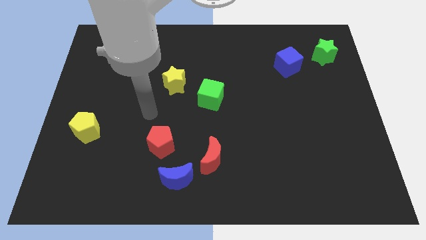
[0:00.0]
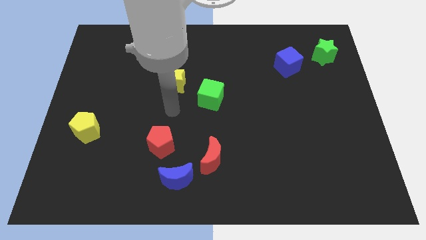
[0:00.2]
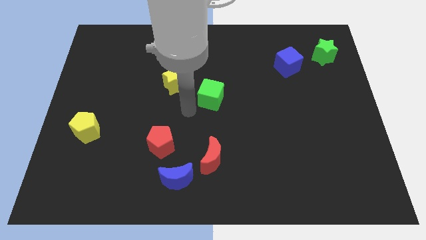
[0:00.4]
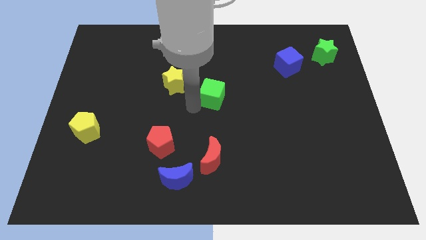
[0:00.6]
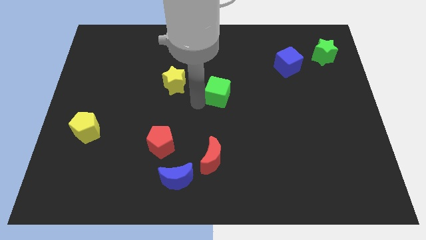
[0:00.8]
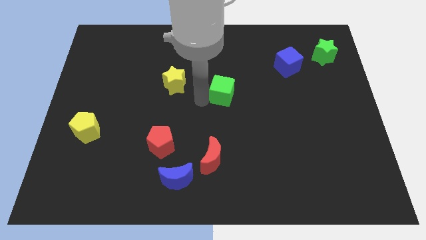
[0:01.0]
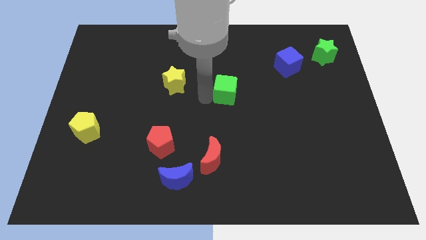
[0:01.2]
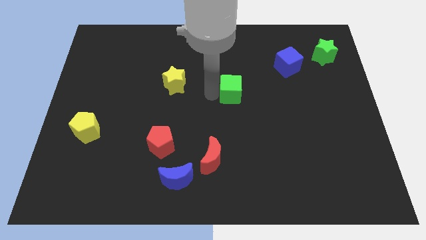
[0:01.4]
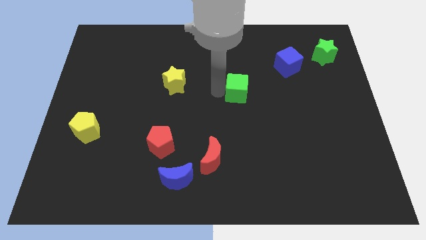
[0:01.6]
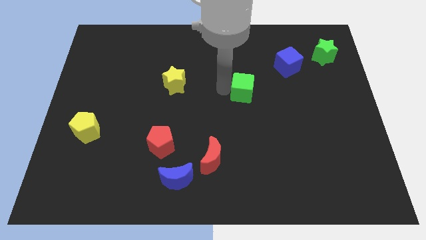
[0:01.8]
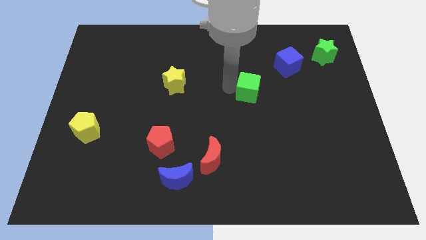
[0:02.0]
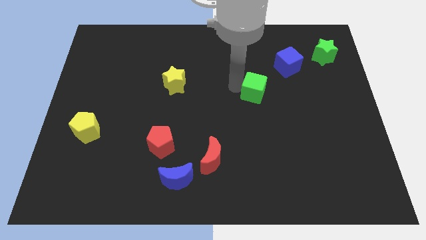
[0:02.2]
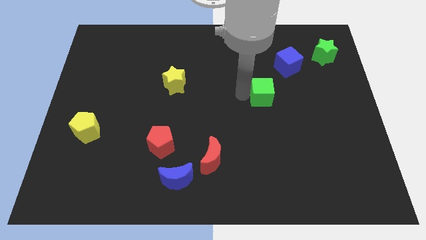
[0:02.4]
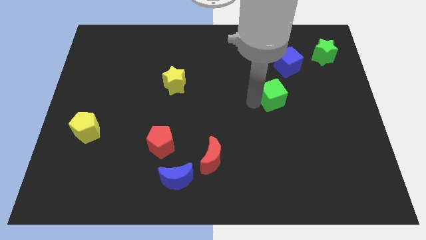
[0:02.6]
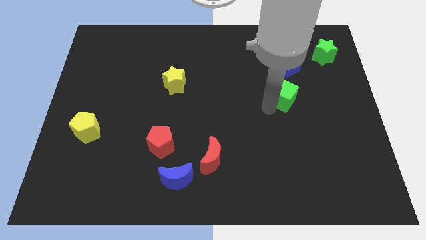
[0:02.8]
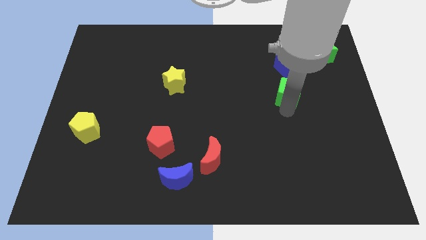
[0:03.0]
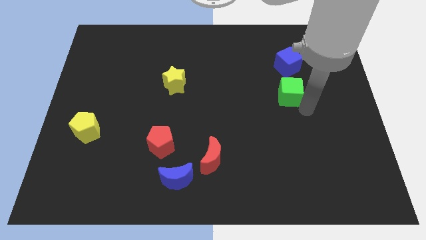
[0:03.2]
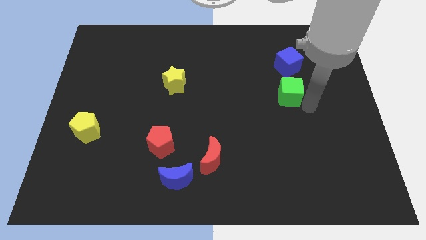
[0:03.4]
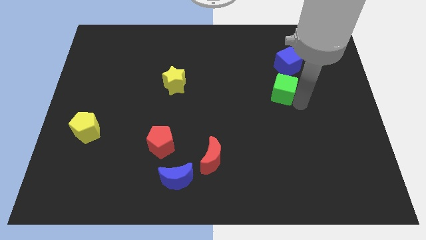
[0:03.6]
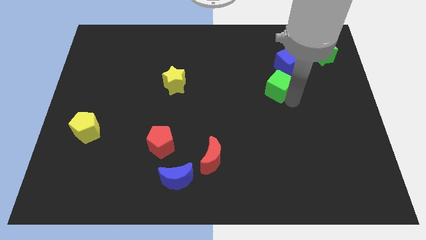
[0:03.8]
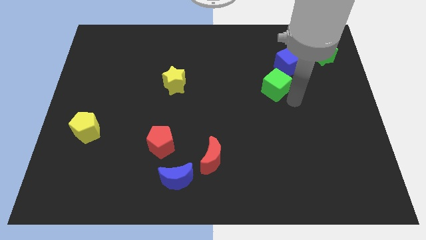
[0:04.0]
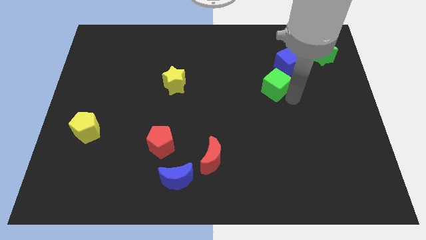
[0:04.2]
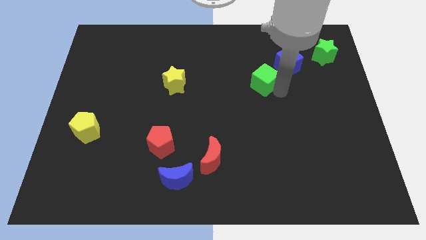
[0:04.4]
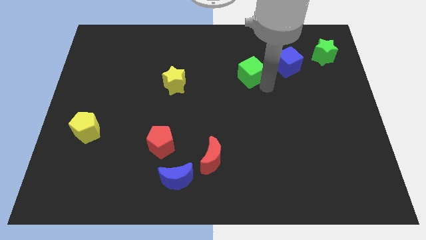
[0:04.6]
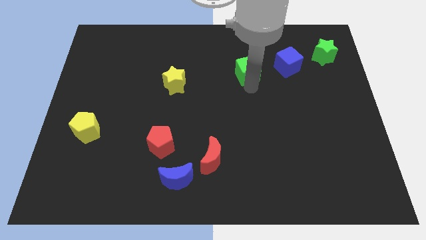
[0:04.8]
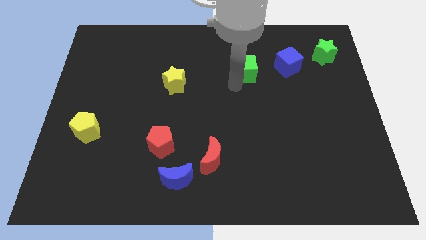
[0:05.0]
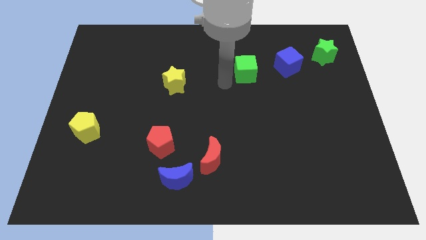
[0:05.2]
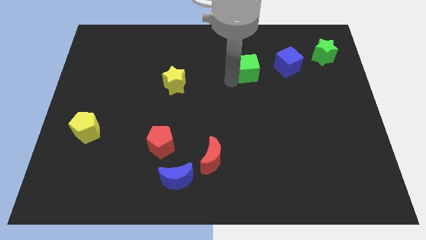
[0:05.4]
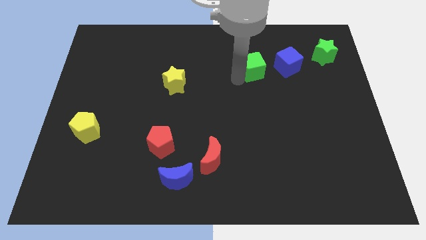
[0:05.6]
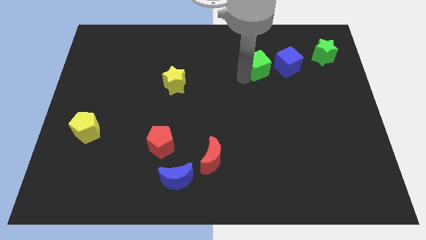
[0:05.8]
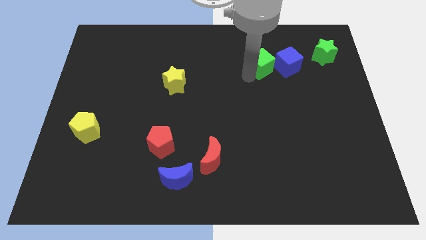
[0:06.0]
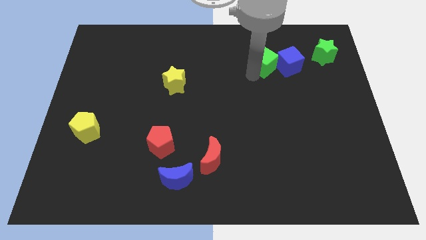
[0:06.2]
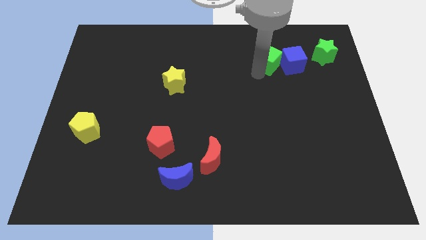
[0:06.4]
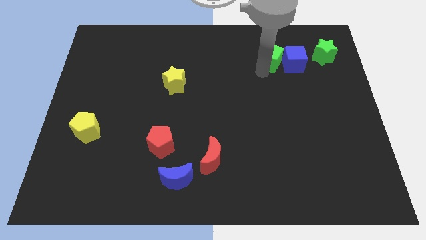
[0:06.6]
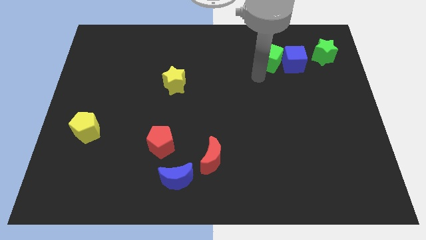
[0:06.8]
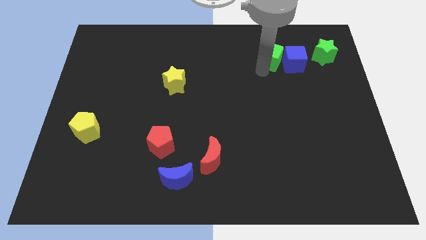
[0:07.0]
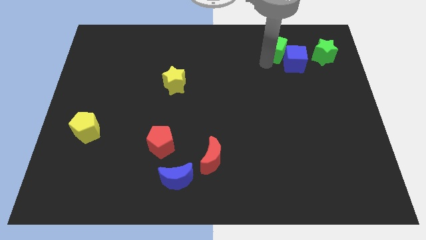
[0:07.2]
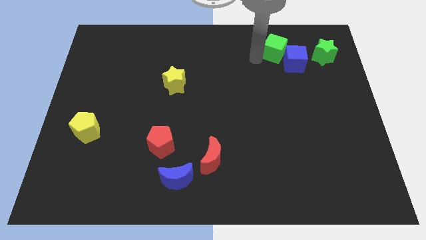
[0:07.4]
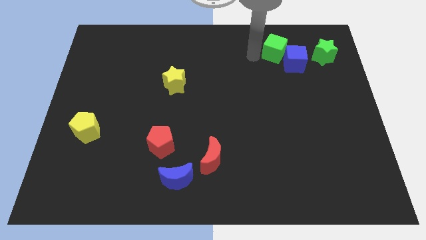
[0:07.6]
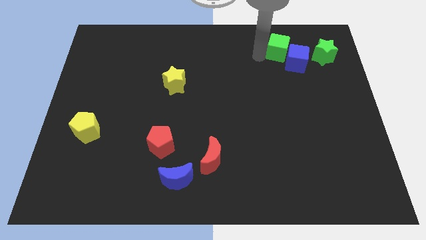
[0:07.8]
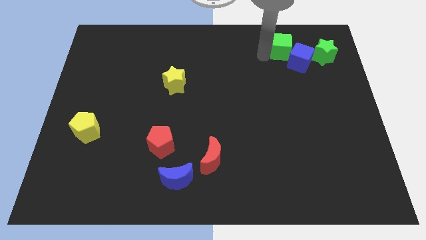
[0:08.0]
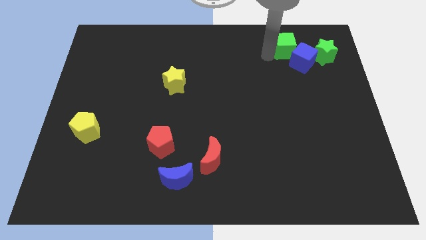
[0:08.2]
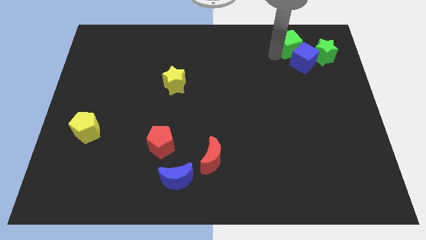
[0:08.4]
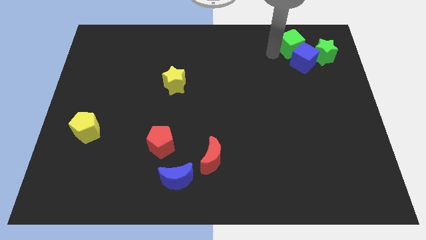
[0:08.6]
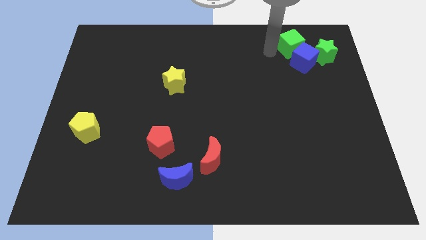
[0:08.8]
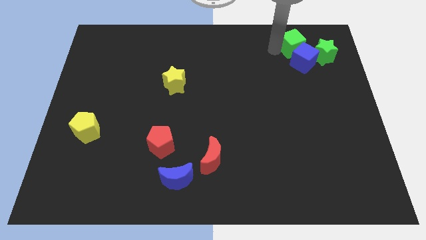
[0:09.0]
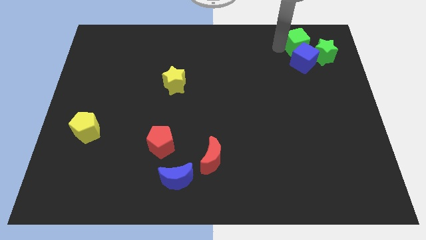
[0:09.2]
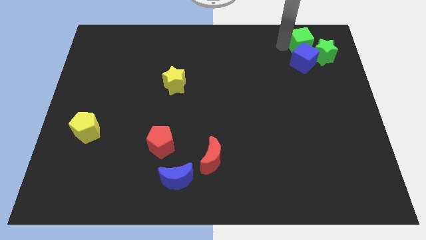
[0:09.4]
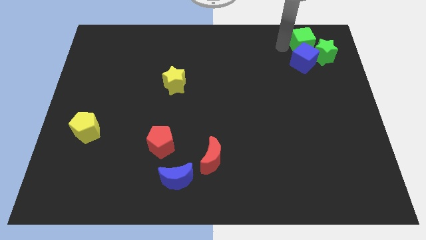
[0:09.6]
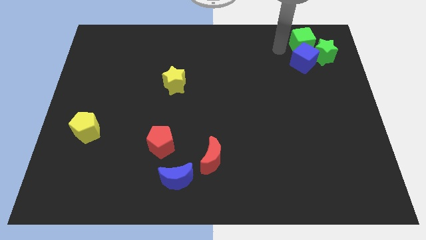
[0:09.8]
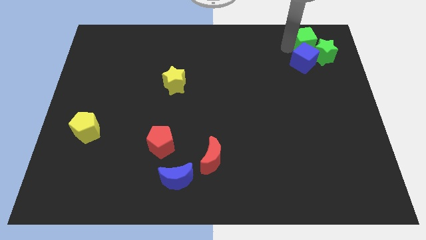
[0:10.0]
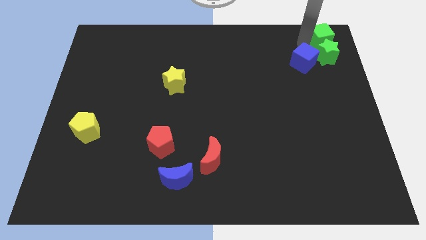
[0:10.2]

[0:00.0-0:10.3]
push the green cube to the top right of the board

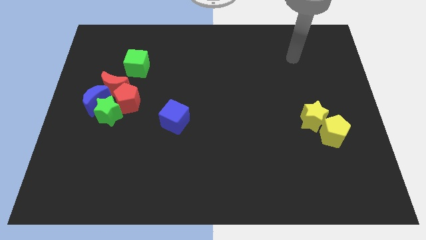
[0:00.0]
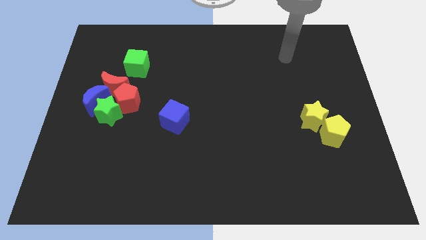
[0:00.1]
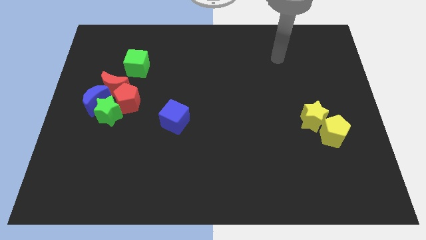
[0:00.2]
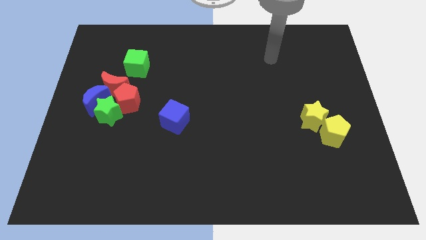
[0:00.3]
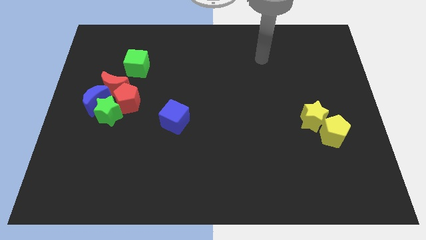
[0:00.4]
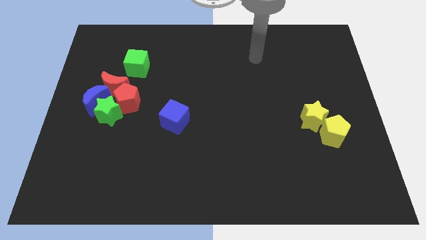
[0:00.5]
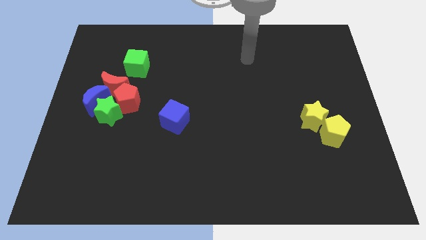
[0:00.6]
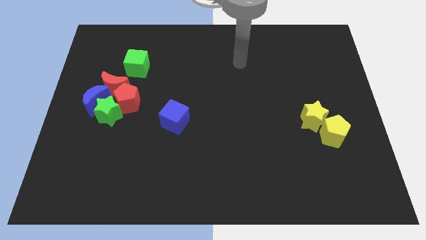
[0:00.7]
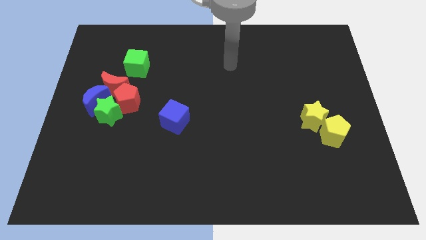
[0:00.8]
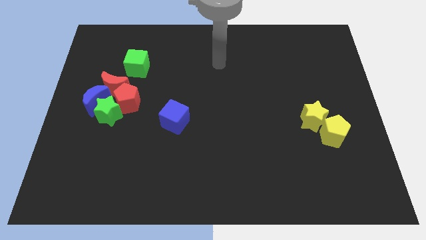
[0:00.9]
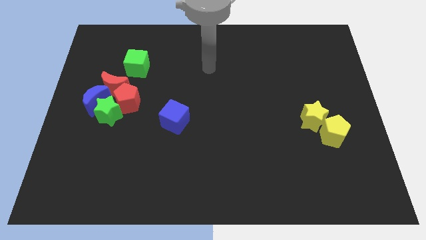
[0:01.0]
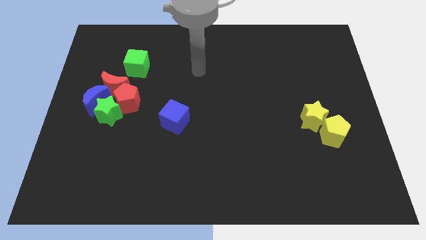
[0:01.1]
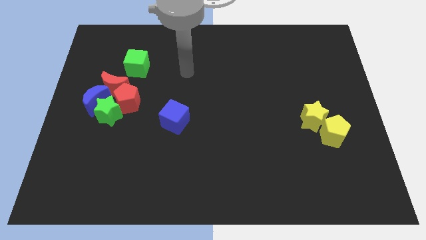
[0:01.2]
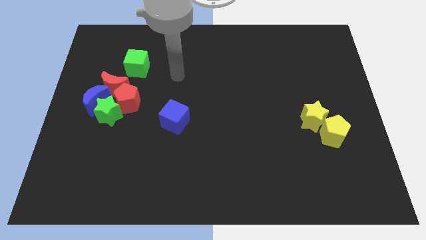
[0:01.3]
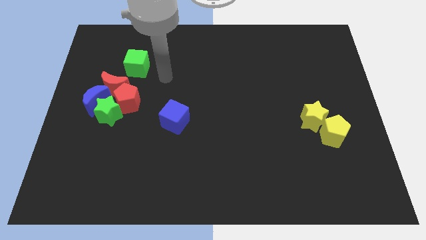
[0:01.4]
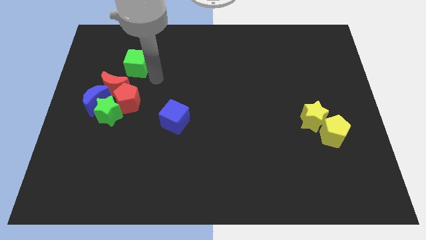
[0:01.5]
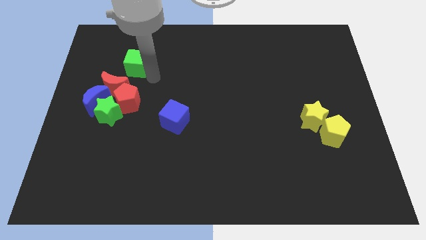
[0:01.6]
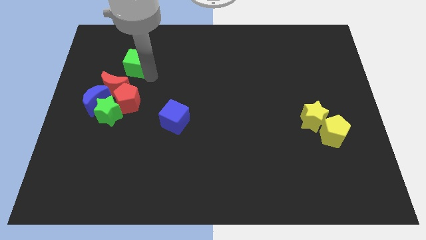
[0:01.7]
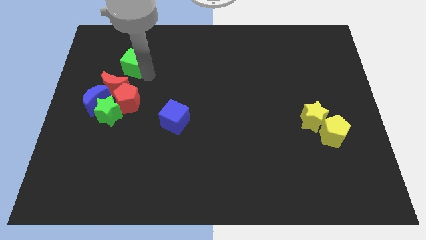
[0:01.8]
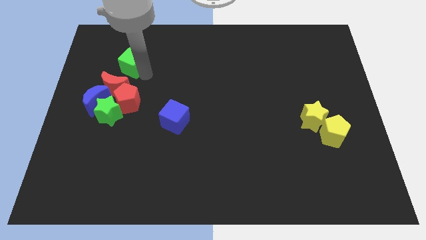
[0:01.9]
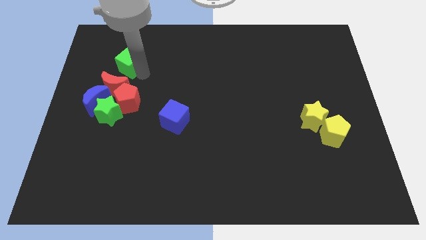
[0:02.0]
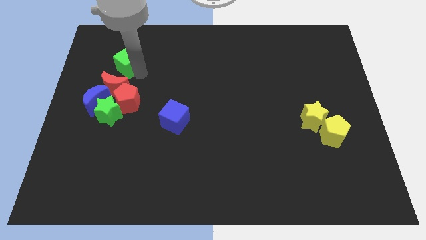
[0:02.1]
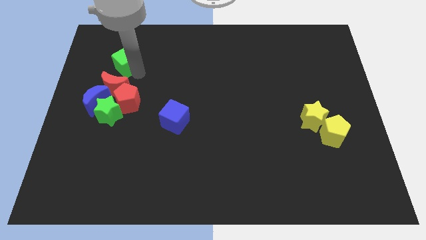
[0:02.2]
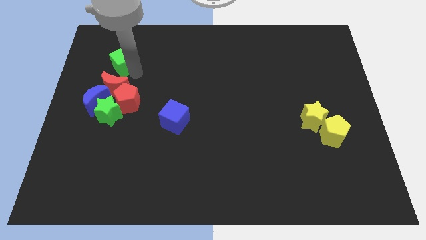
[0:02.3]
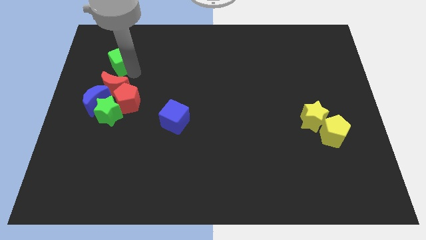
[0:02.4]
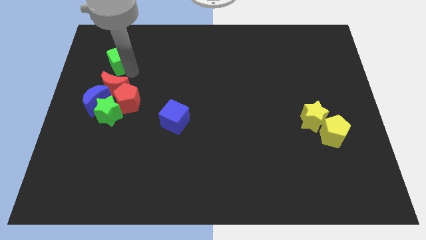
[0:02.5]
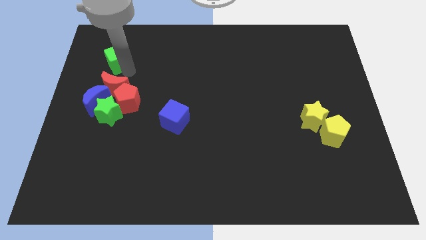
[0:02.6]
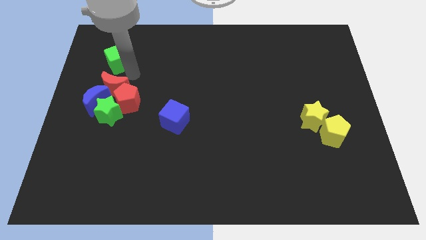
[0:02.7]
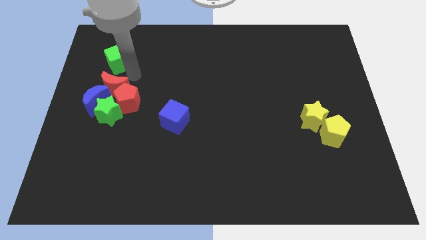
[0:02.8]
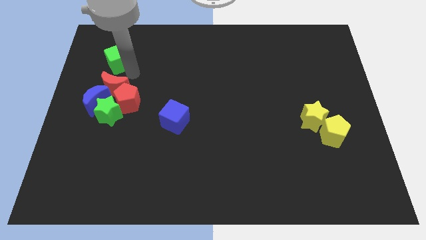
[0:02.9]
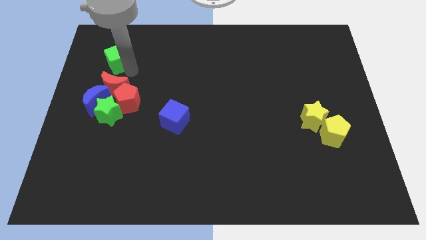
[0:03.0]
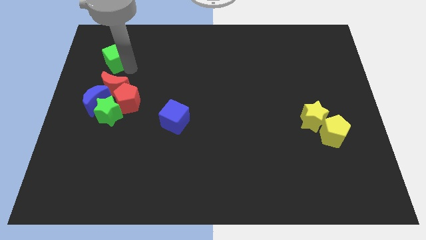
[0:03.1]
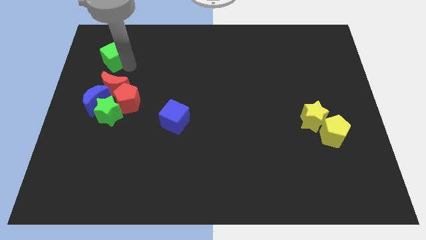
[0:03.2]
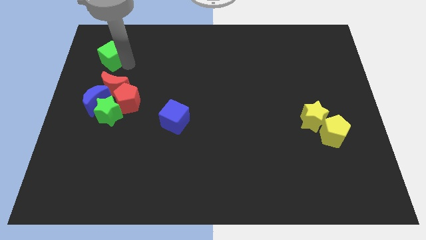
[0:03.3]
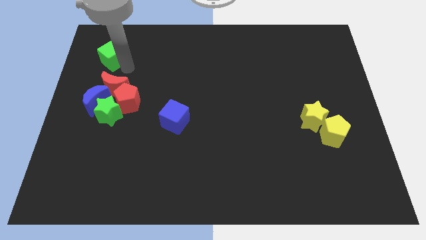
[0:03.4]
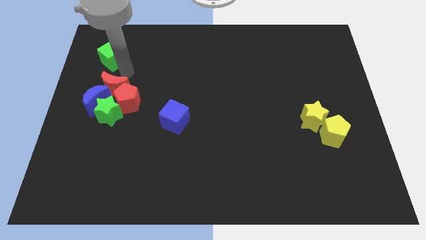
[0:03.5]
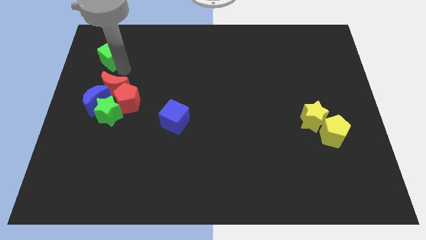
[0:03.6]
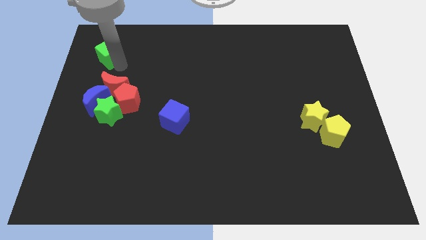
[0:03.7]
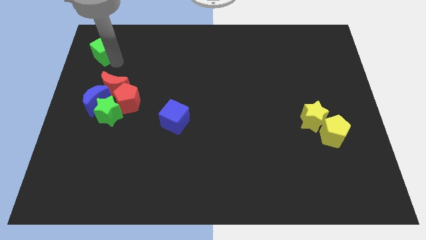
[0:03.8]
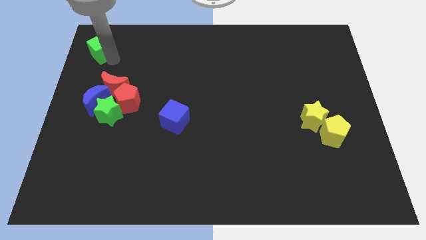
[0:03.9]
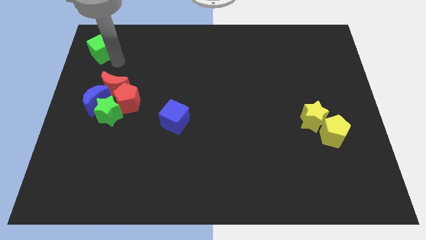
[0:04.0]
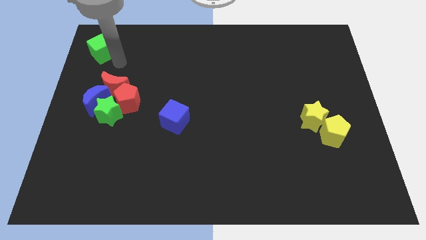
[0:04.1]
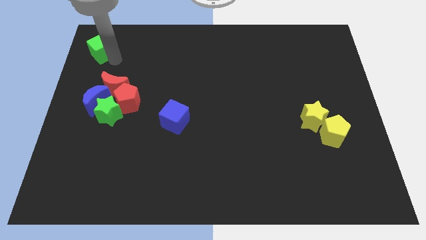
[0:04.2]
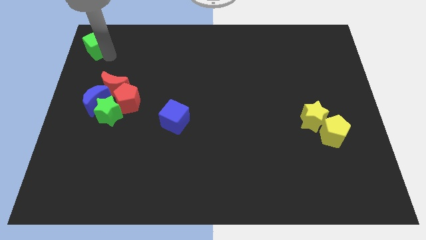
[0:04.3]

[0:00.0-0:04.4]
put the green cube to the top left
